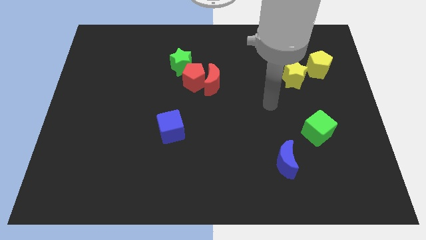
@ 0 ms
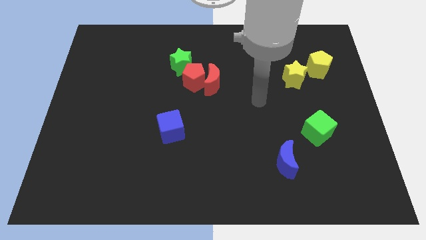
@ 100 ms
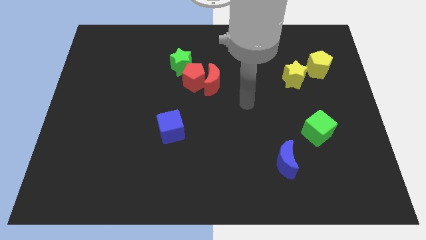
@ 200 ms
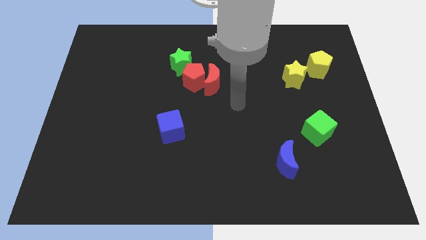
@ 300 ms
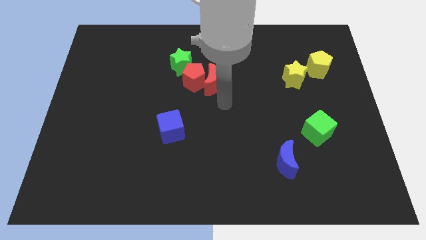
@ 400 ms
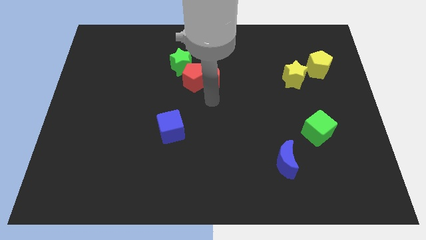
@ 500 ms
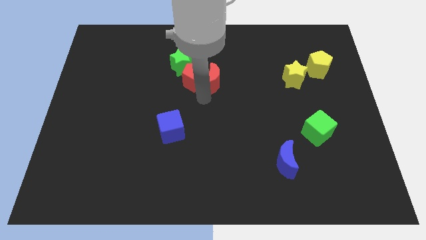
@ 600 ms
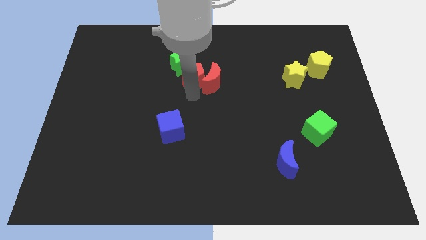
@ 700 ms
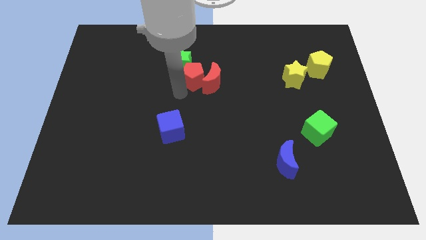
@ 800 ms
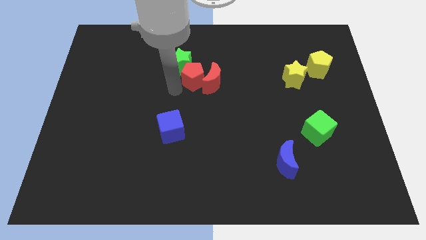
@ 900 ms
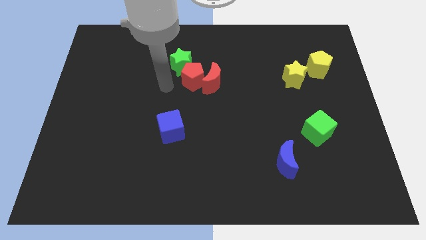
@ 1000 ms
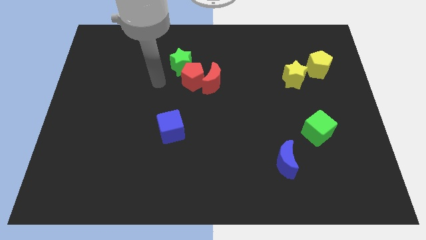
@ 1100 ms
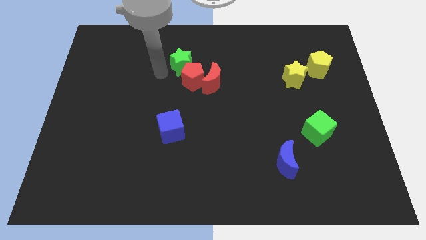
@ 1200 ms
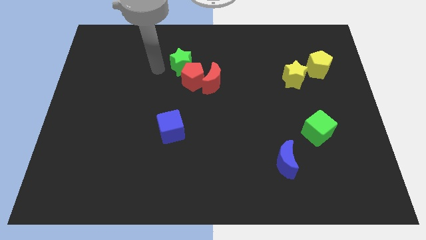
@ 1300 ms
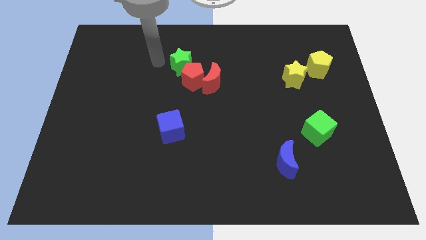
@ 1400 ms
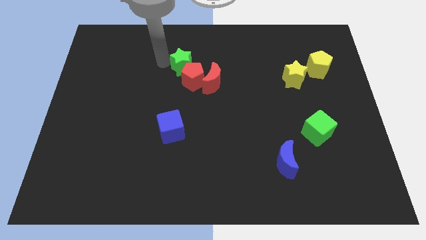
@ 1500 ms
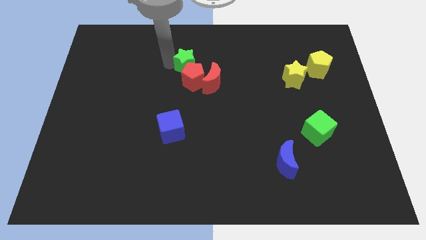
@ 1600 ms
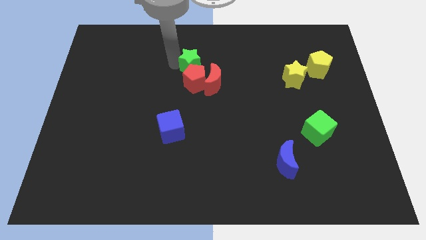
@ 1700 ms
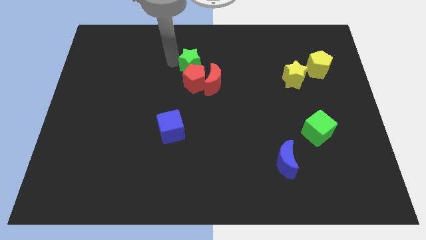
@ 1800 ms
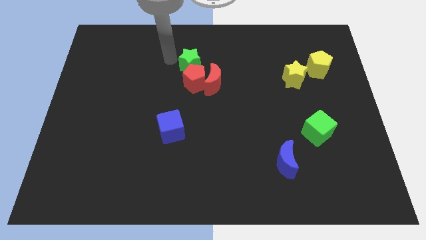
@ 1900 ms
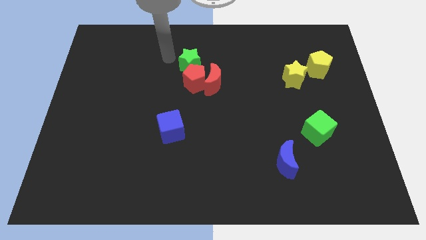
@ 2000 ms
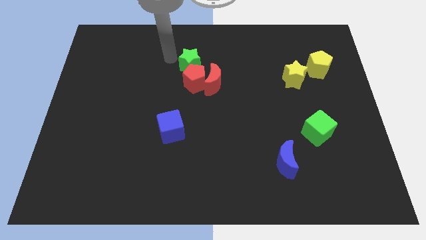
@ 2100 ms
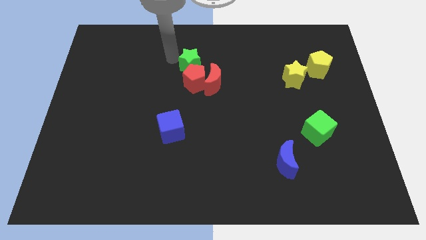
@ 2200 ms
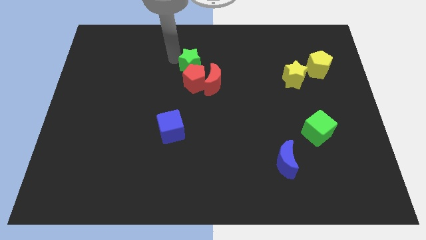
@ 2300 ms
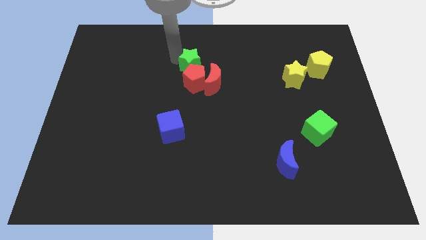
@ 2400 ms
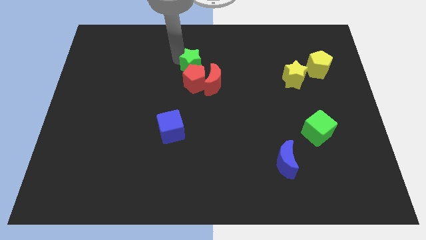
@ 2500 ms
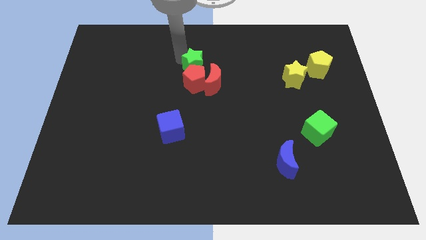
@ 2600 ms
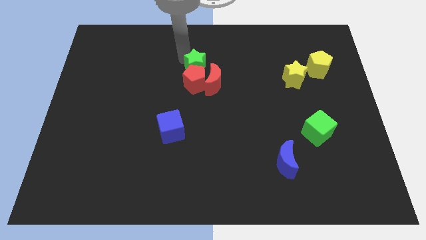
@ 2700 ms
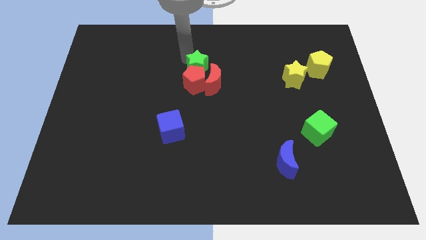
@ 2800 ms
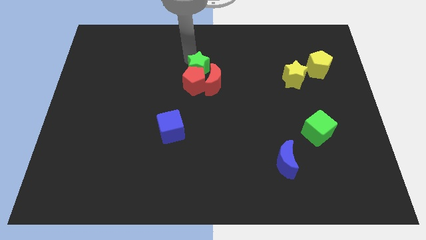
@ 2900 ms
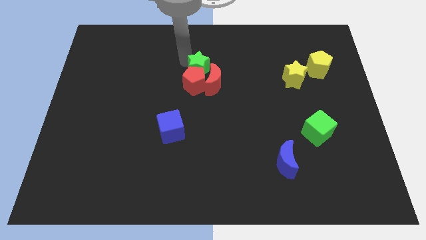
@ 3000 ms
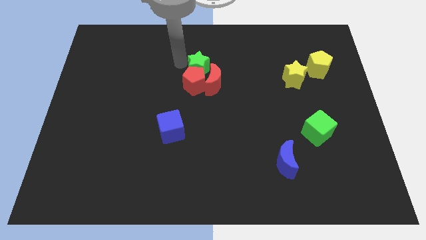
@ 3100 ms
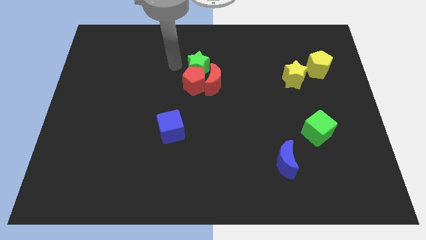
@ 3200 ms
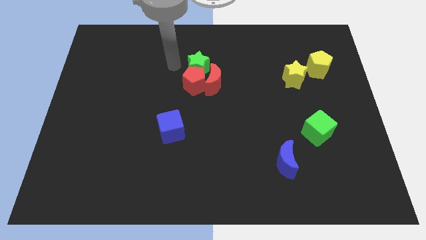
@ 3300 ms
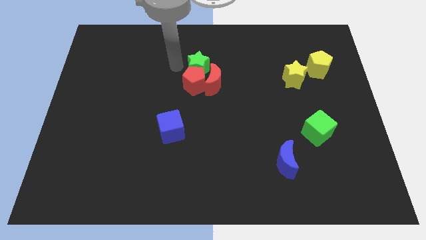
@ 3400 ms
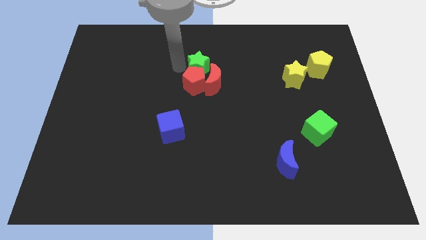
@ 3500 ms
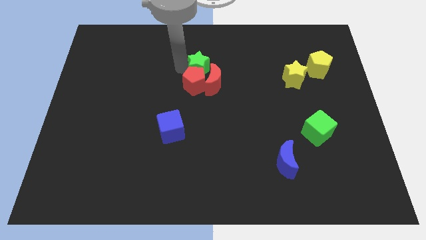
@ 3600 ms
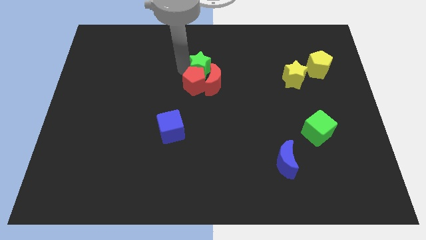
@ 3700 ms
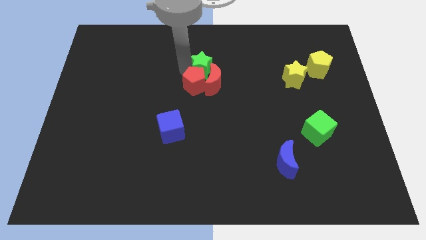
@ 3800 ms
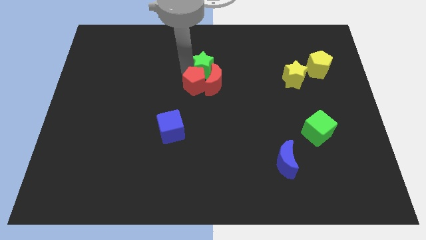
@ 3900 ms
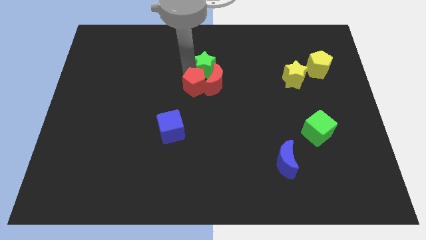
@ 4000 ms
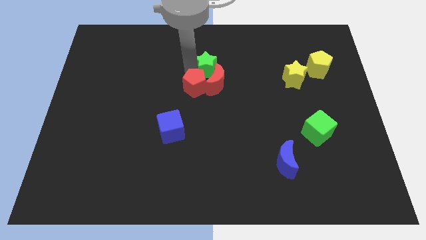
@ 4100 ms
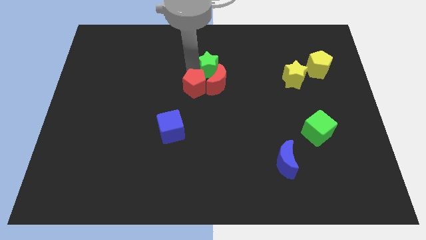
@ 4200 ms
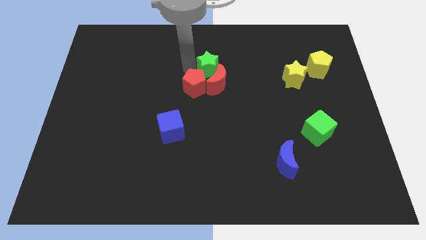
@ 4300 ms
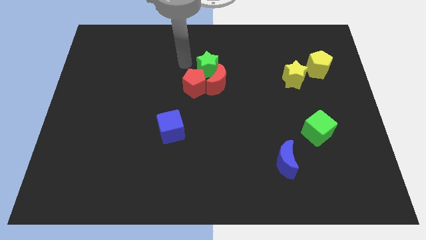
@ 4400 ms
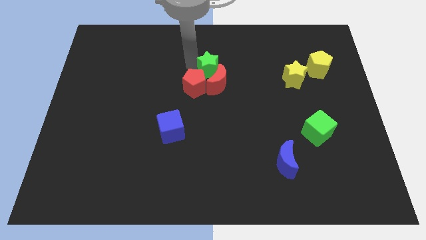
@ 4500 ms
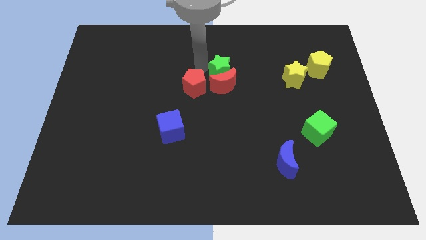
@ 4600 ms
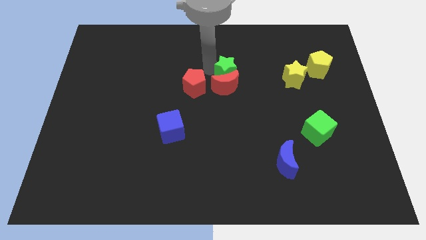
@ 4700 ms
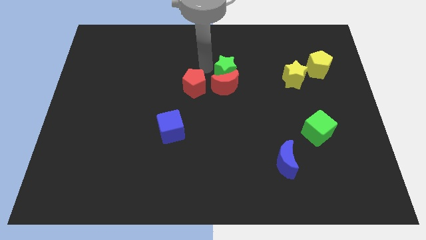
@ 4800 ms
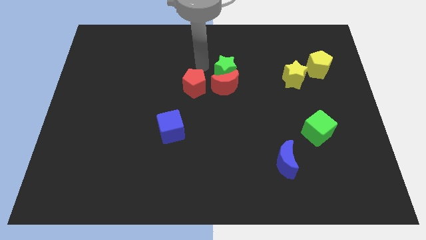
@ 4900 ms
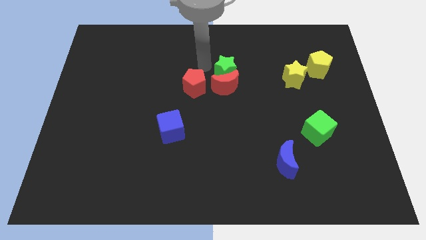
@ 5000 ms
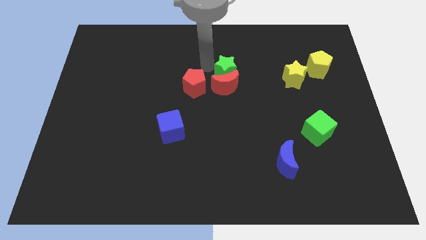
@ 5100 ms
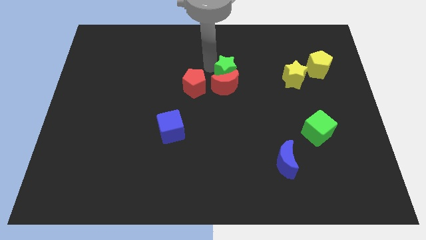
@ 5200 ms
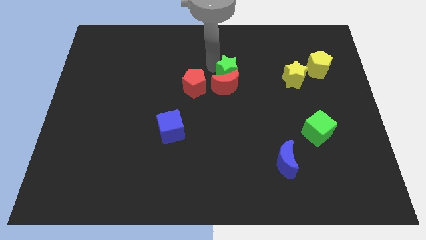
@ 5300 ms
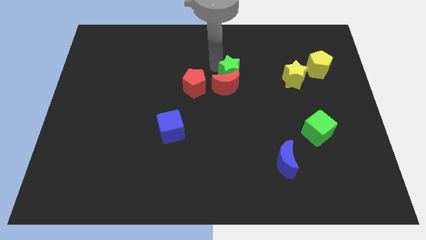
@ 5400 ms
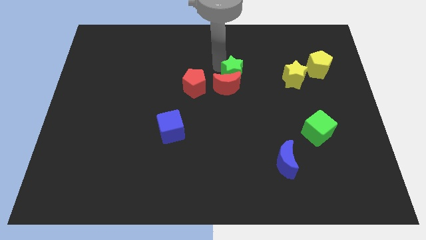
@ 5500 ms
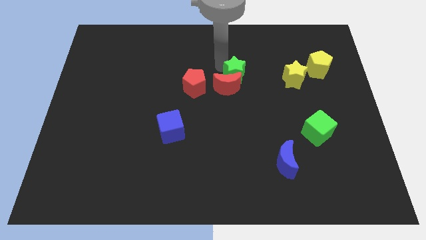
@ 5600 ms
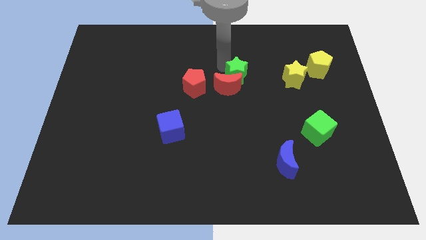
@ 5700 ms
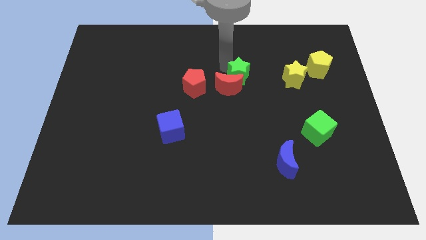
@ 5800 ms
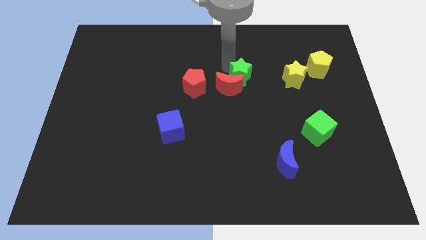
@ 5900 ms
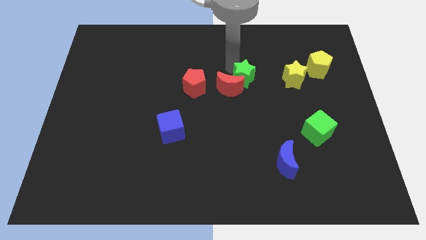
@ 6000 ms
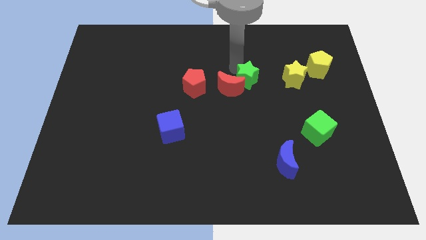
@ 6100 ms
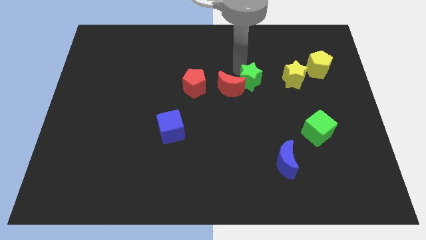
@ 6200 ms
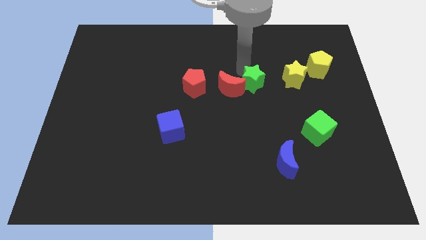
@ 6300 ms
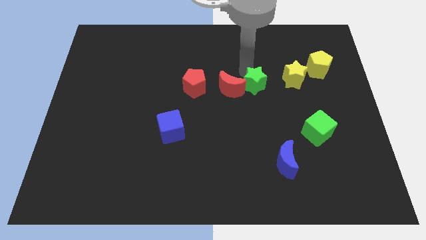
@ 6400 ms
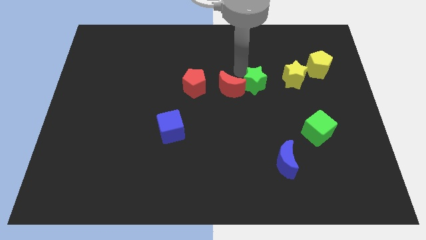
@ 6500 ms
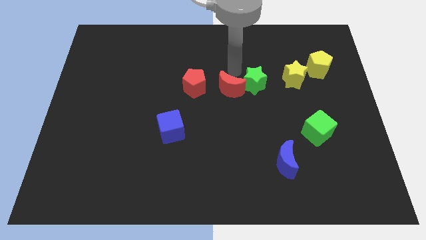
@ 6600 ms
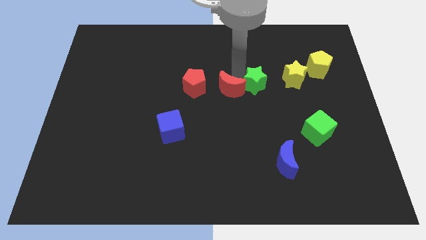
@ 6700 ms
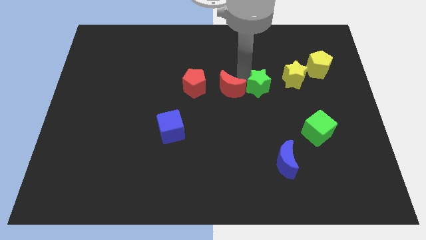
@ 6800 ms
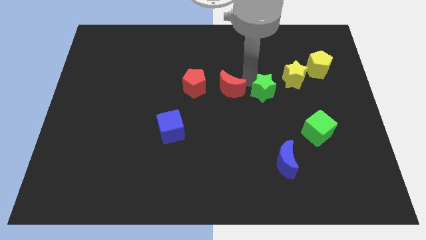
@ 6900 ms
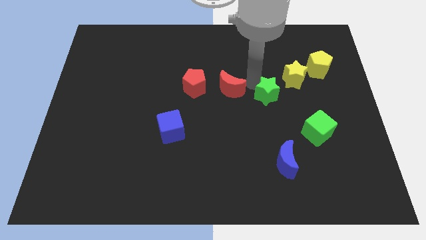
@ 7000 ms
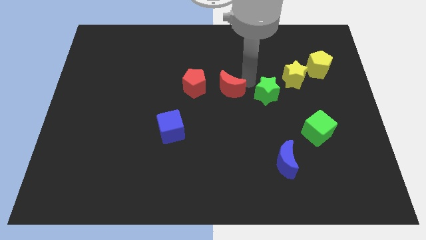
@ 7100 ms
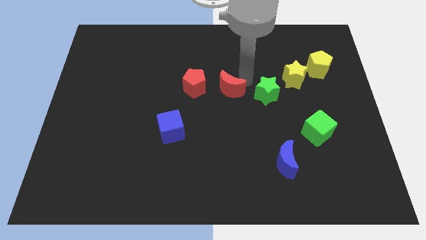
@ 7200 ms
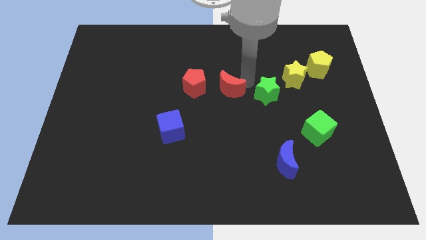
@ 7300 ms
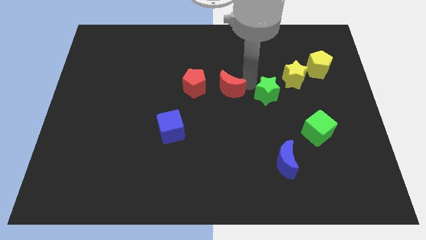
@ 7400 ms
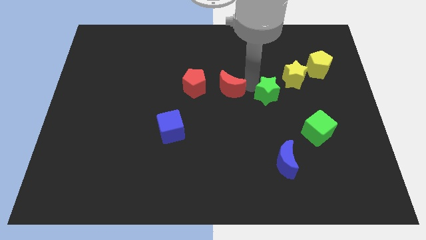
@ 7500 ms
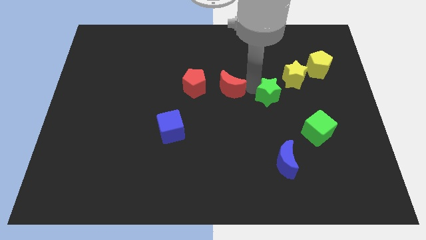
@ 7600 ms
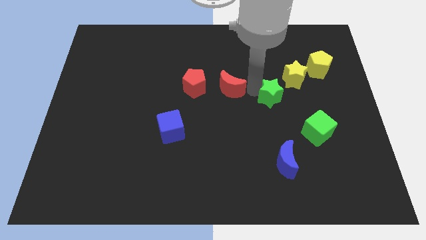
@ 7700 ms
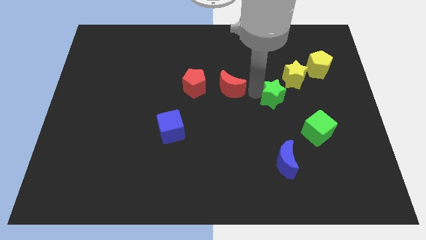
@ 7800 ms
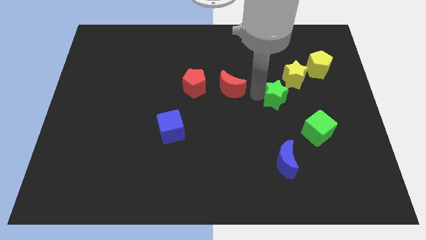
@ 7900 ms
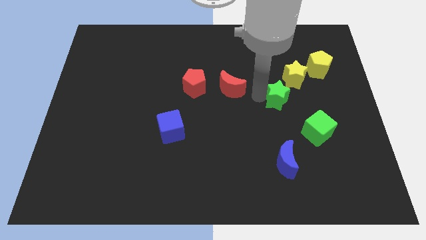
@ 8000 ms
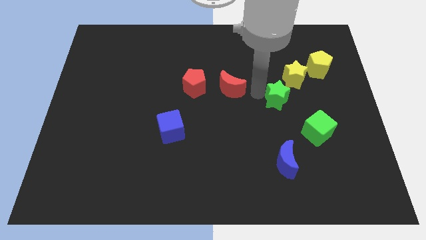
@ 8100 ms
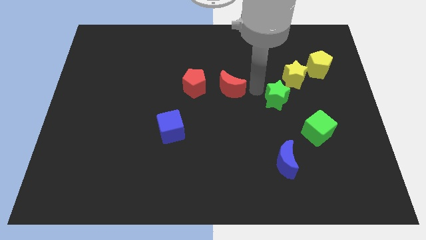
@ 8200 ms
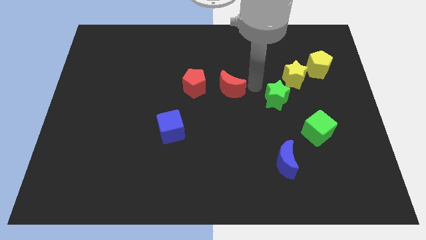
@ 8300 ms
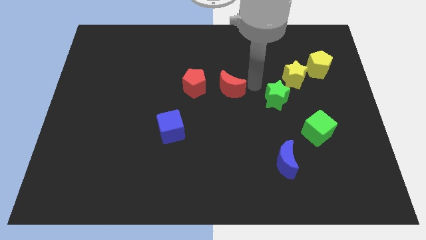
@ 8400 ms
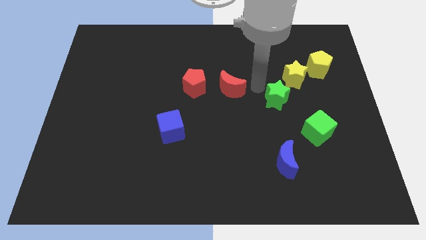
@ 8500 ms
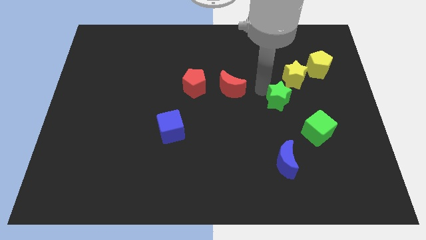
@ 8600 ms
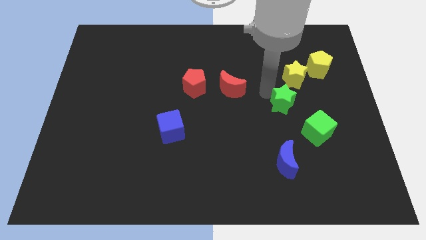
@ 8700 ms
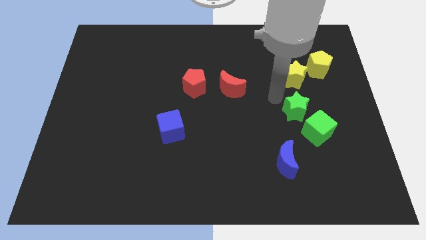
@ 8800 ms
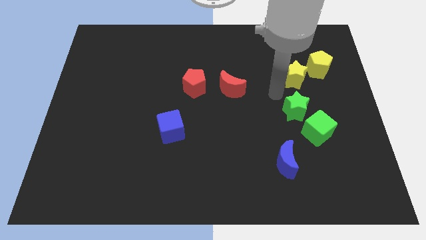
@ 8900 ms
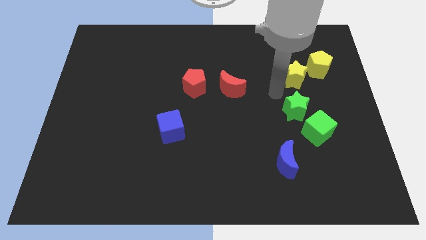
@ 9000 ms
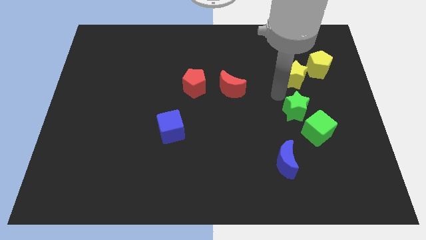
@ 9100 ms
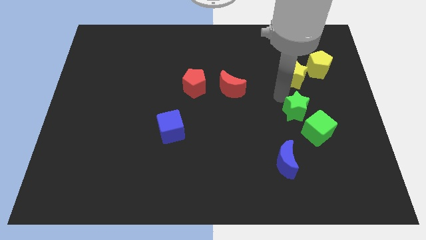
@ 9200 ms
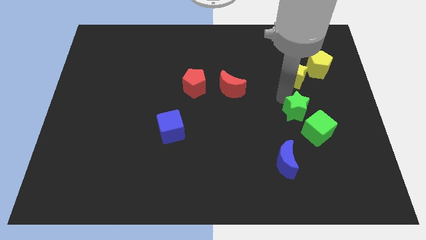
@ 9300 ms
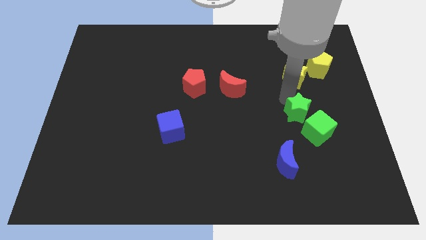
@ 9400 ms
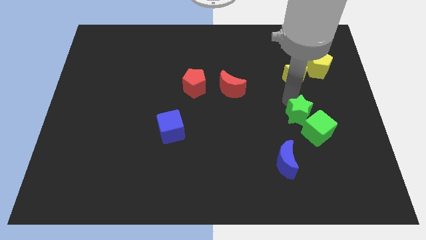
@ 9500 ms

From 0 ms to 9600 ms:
slide the green star to the green cube
